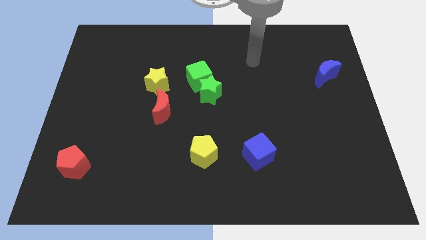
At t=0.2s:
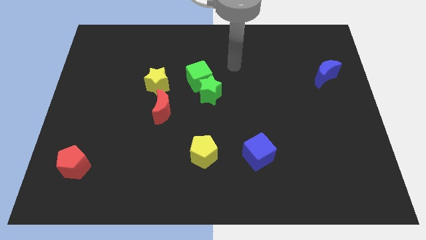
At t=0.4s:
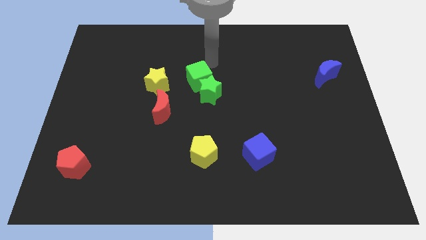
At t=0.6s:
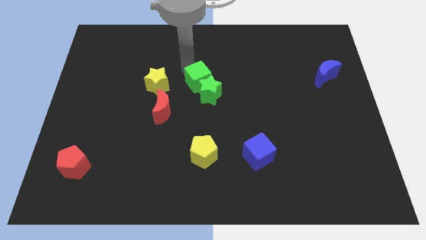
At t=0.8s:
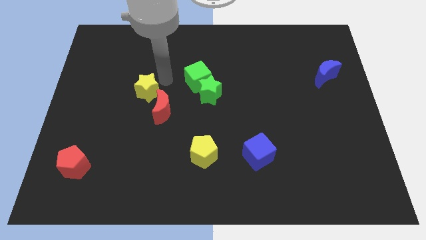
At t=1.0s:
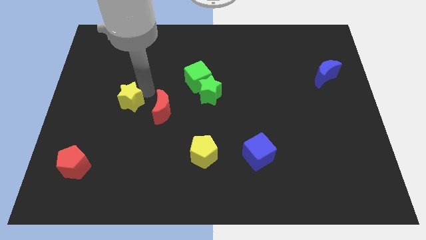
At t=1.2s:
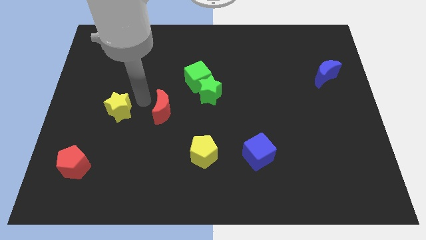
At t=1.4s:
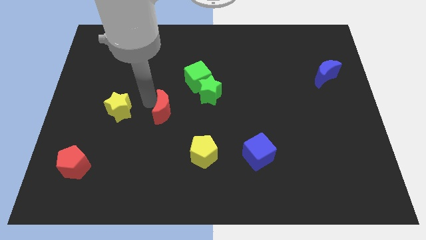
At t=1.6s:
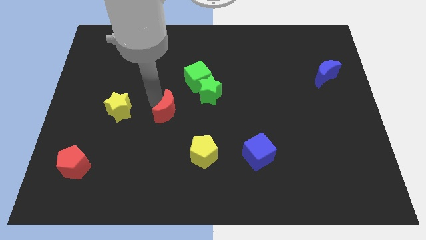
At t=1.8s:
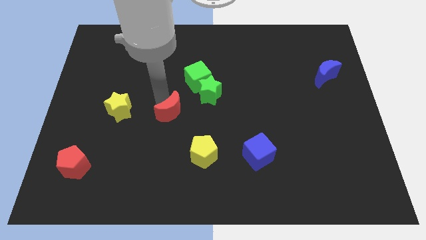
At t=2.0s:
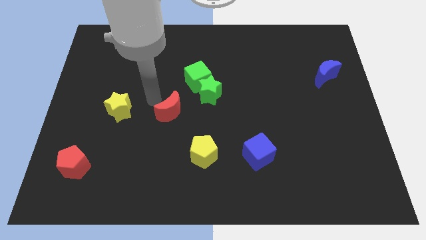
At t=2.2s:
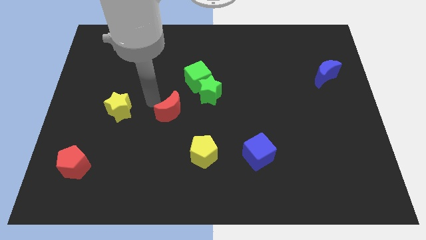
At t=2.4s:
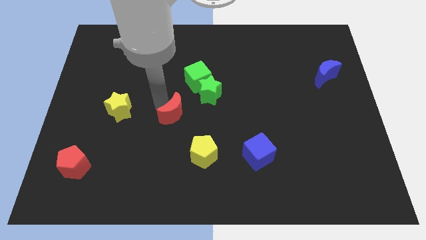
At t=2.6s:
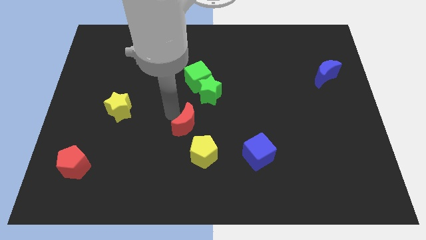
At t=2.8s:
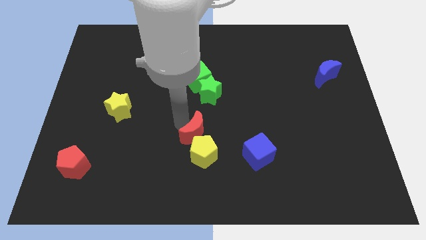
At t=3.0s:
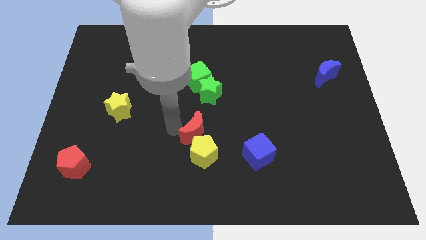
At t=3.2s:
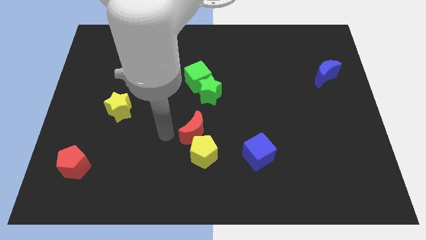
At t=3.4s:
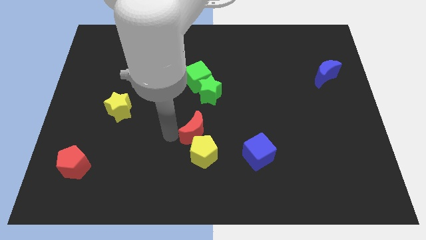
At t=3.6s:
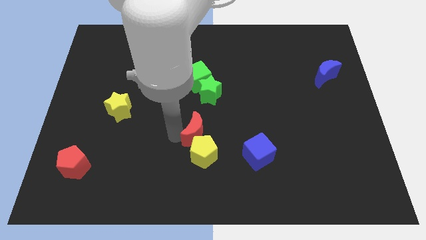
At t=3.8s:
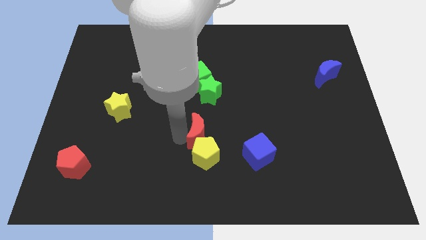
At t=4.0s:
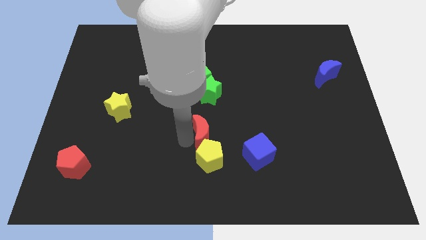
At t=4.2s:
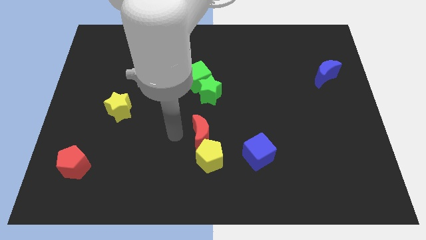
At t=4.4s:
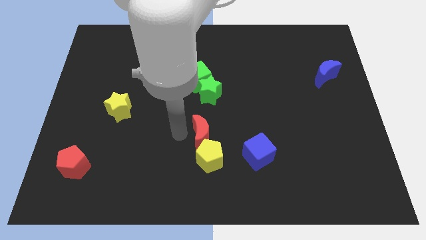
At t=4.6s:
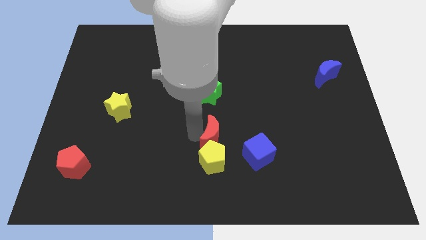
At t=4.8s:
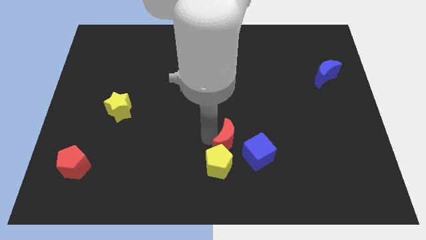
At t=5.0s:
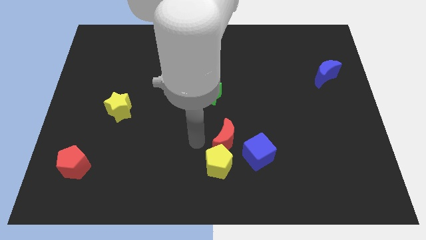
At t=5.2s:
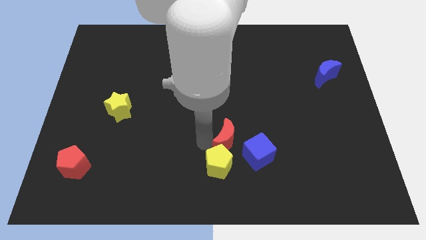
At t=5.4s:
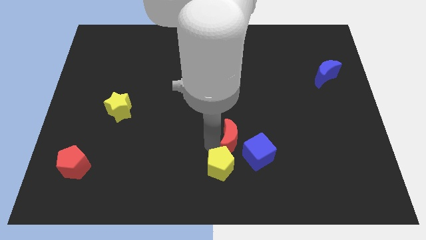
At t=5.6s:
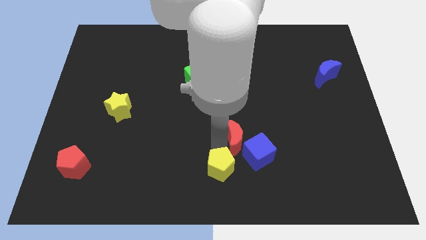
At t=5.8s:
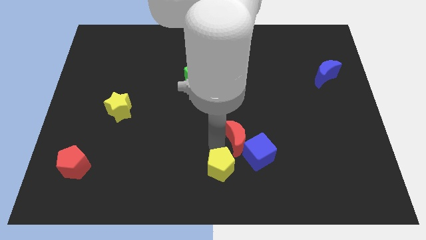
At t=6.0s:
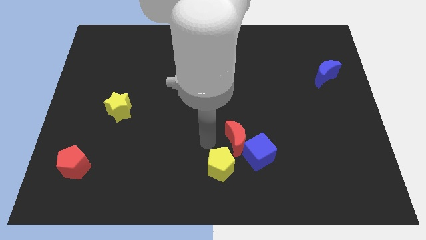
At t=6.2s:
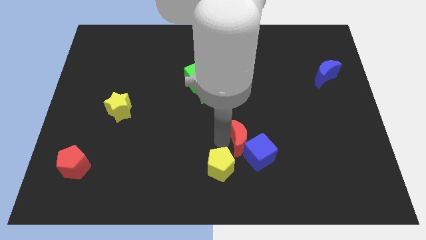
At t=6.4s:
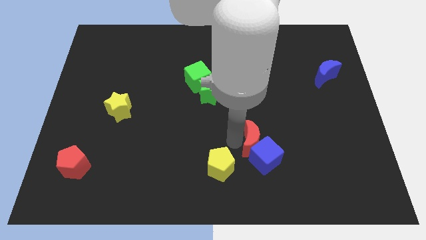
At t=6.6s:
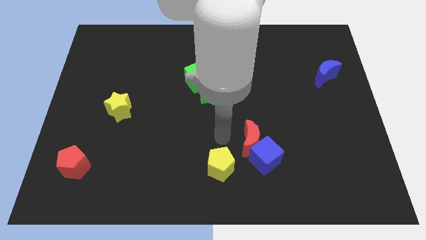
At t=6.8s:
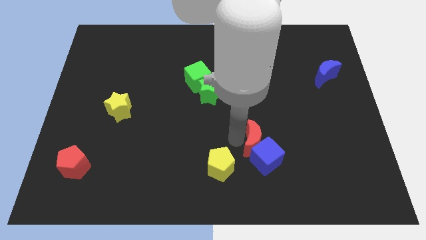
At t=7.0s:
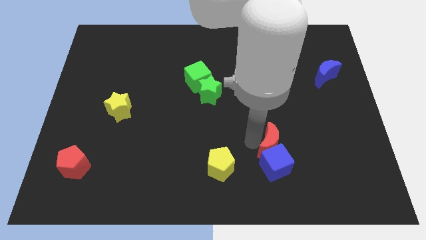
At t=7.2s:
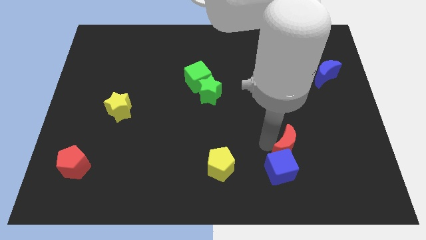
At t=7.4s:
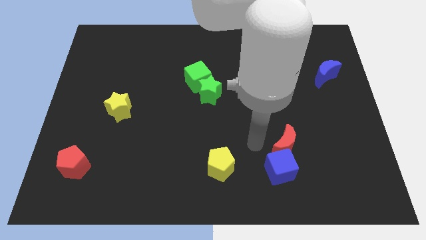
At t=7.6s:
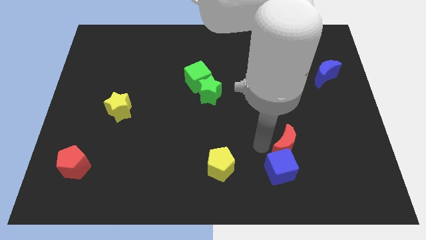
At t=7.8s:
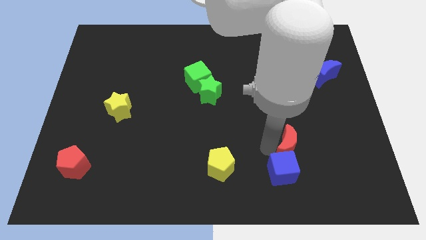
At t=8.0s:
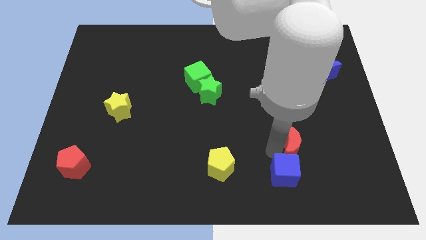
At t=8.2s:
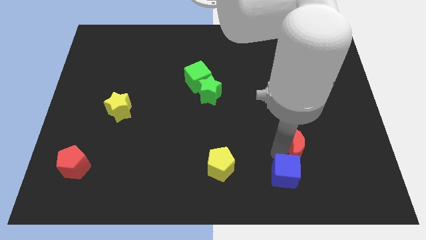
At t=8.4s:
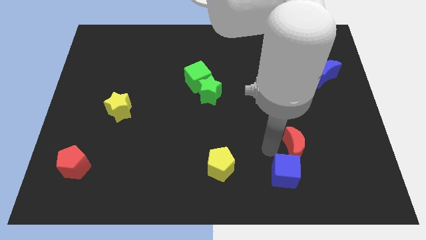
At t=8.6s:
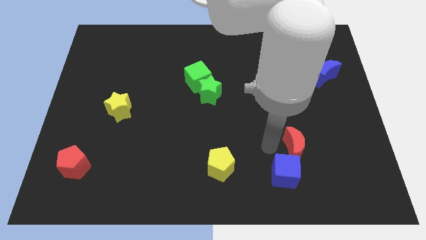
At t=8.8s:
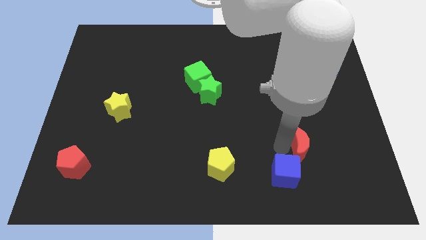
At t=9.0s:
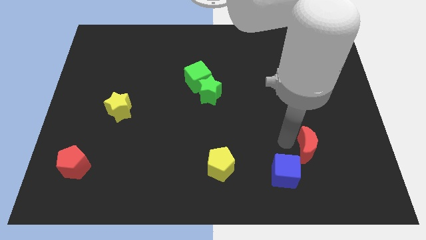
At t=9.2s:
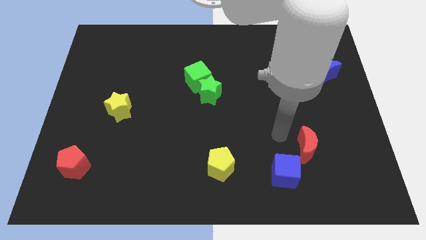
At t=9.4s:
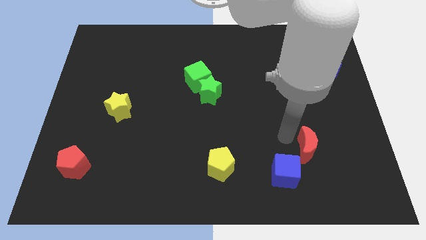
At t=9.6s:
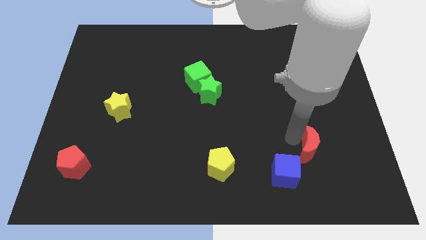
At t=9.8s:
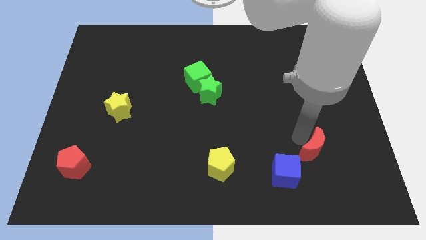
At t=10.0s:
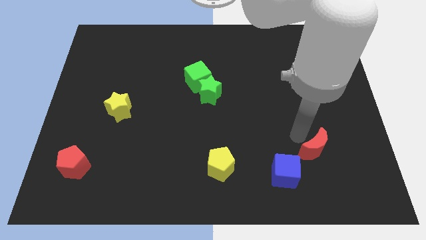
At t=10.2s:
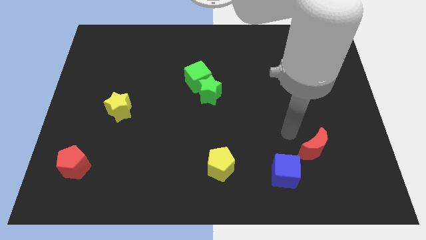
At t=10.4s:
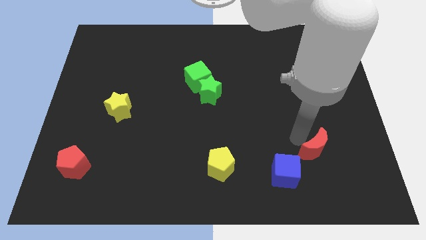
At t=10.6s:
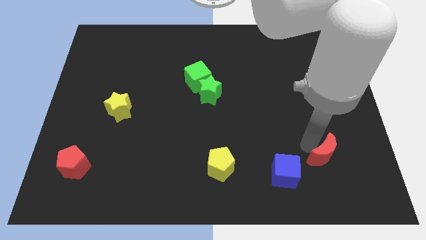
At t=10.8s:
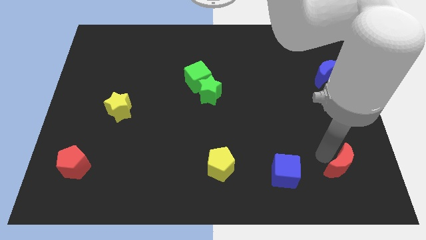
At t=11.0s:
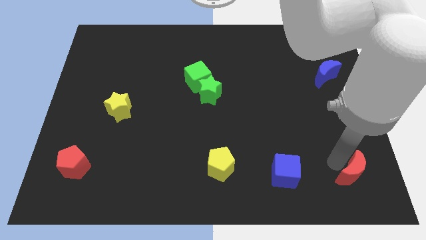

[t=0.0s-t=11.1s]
put the red moon to the lower right corner

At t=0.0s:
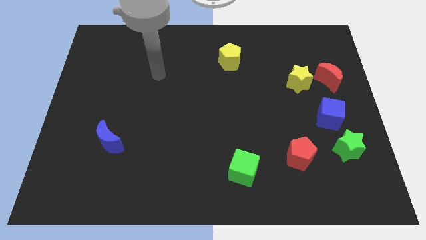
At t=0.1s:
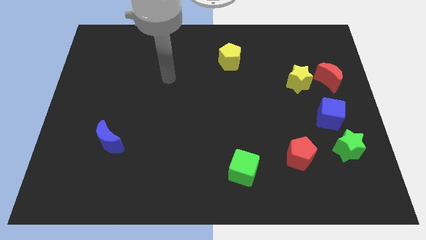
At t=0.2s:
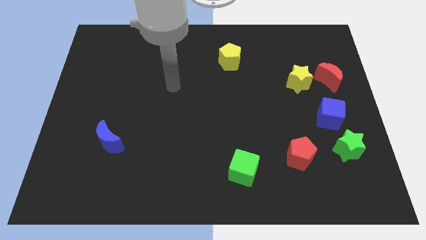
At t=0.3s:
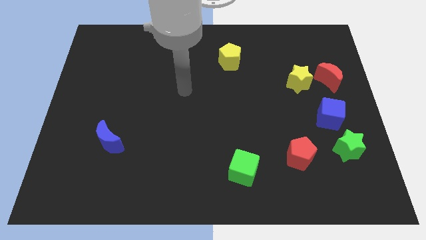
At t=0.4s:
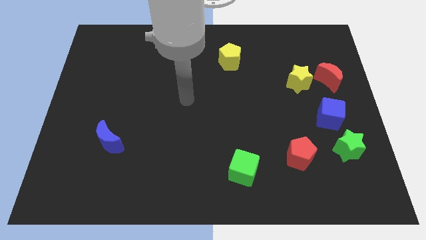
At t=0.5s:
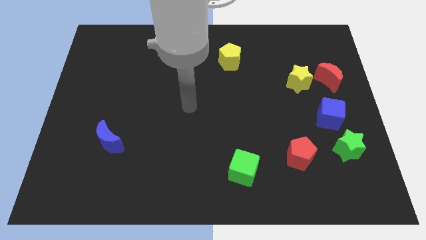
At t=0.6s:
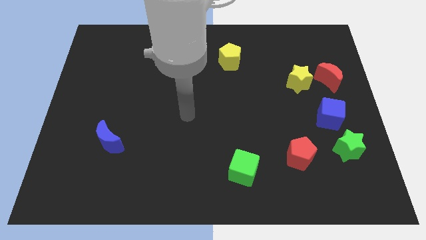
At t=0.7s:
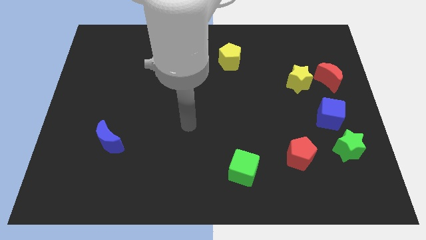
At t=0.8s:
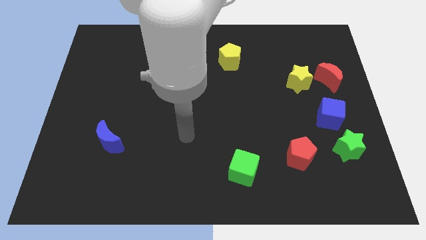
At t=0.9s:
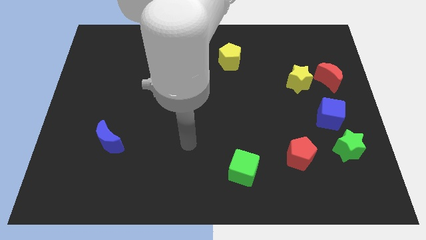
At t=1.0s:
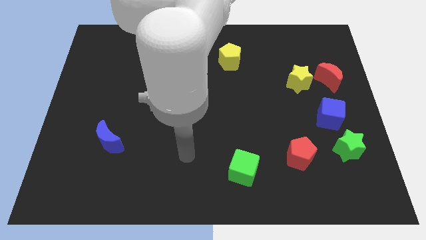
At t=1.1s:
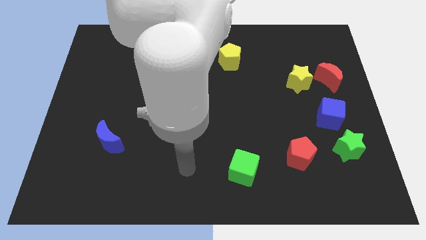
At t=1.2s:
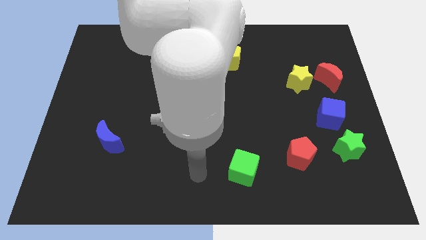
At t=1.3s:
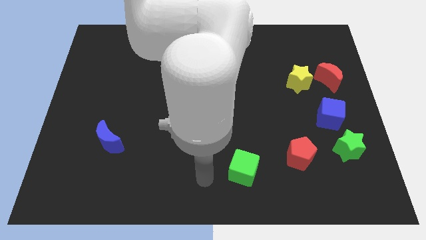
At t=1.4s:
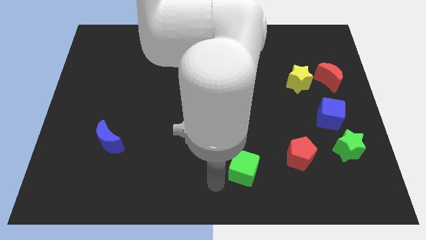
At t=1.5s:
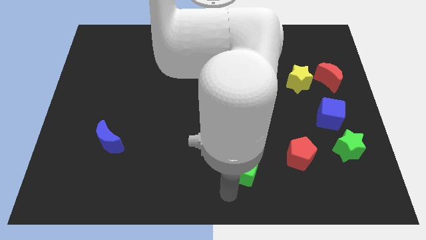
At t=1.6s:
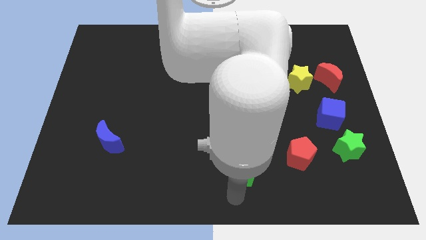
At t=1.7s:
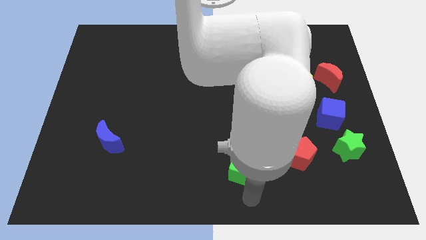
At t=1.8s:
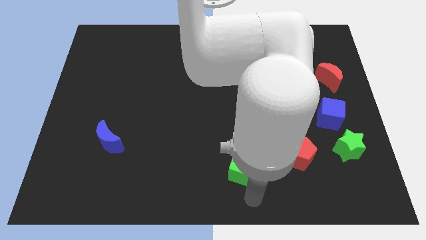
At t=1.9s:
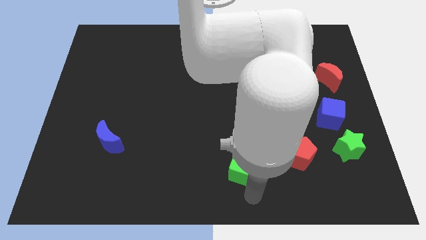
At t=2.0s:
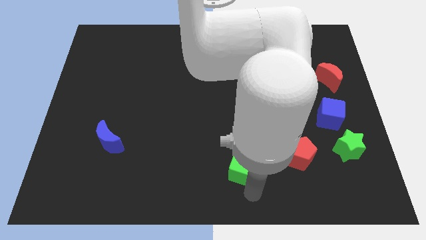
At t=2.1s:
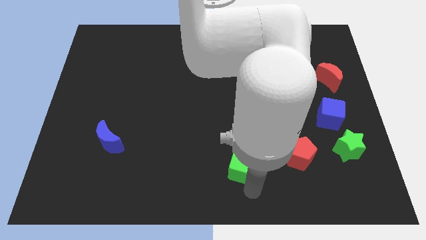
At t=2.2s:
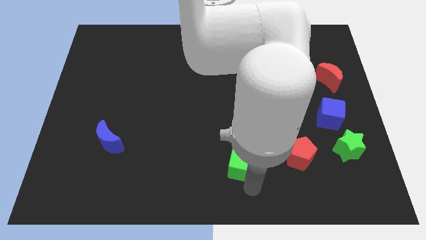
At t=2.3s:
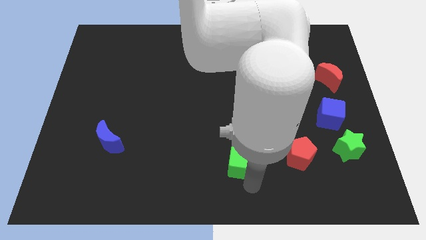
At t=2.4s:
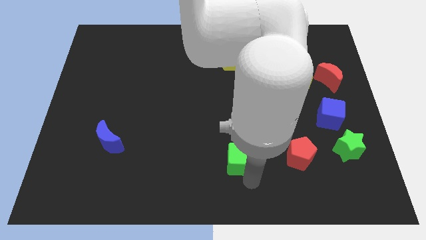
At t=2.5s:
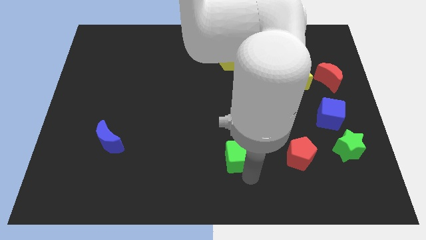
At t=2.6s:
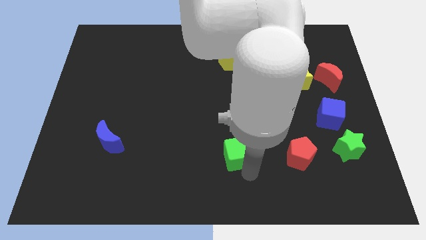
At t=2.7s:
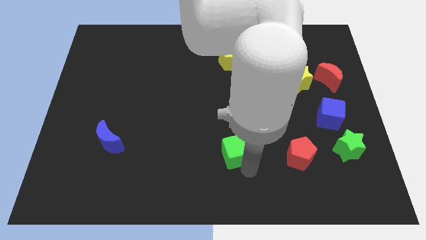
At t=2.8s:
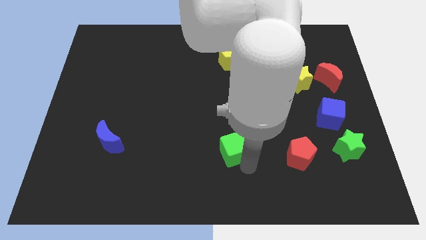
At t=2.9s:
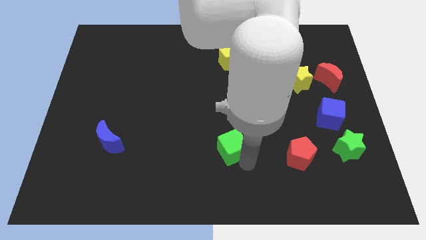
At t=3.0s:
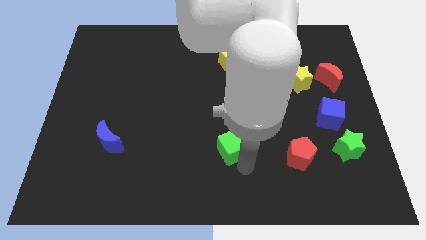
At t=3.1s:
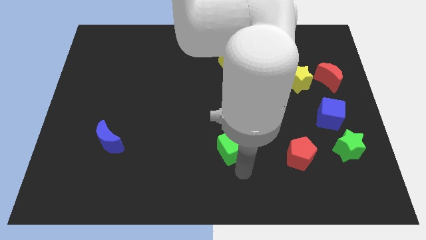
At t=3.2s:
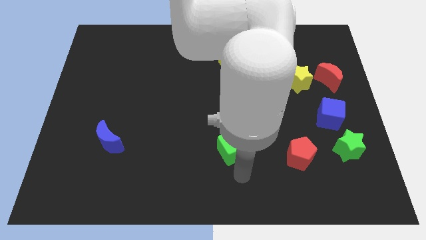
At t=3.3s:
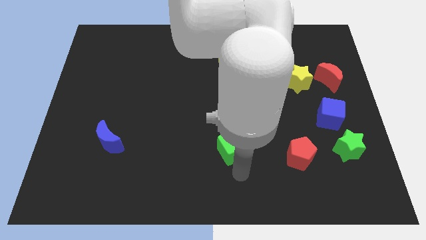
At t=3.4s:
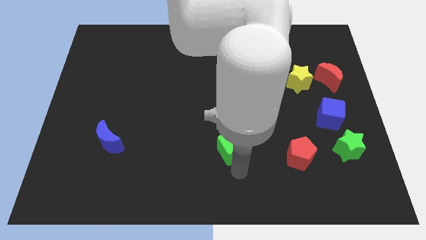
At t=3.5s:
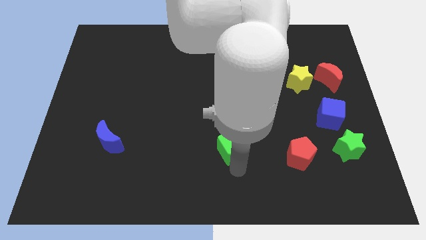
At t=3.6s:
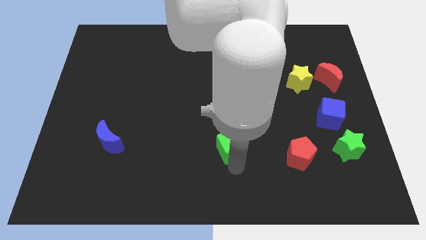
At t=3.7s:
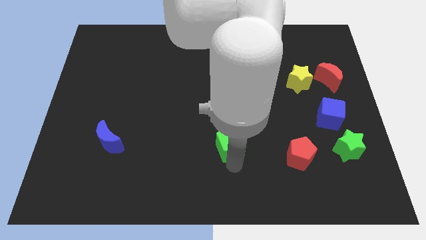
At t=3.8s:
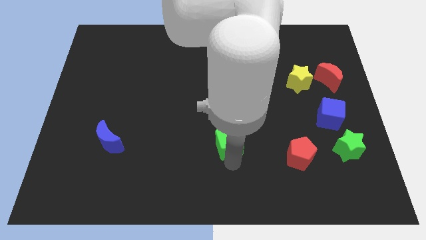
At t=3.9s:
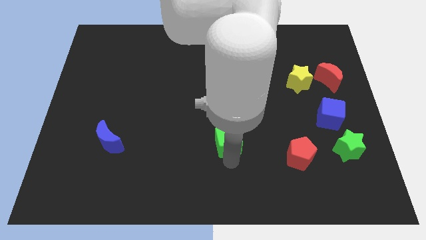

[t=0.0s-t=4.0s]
put the green cube to the center
